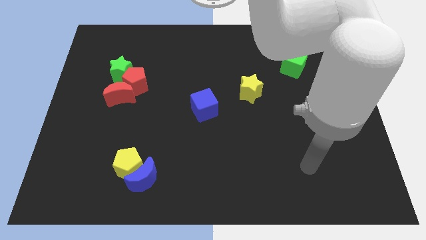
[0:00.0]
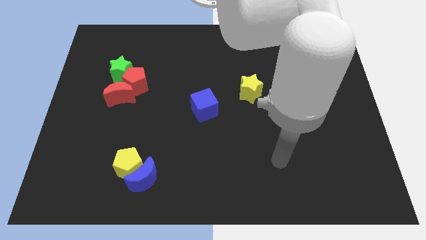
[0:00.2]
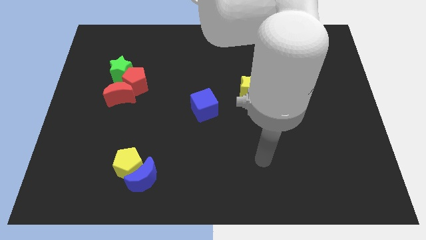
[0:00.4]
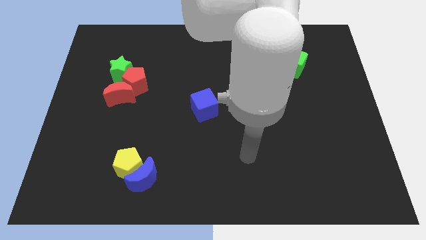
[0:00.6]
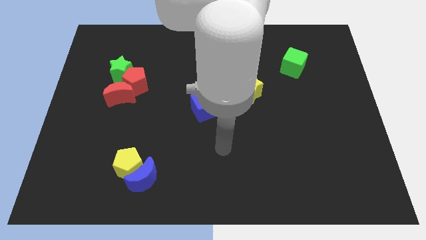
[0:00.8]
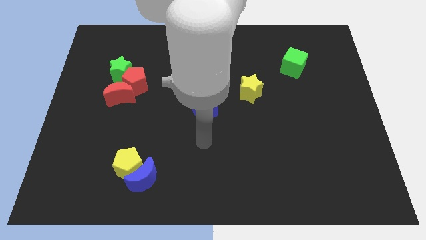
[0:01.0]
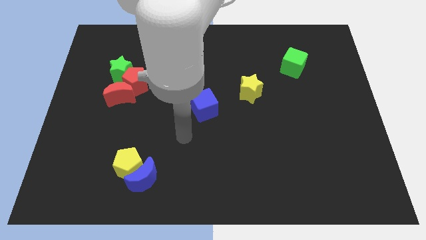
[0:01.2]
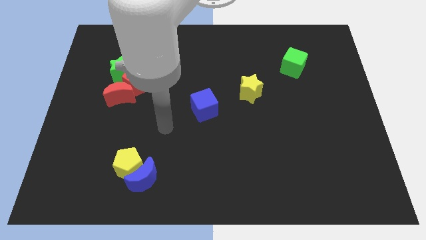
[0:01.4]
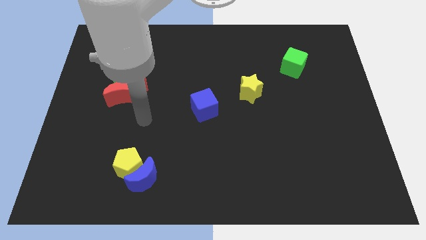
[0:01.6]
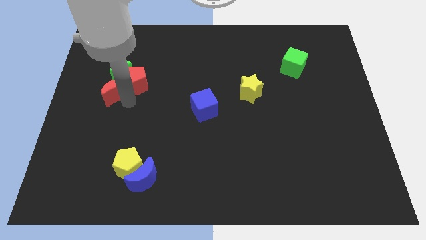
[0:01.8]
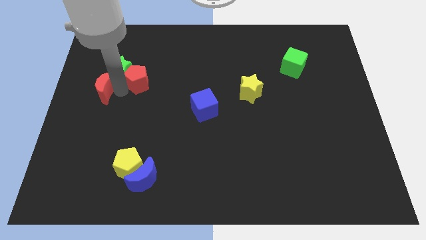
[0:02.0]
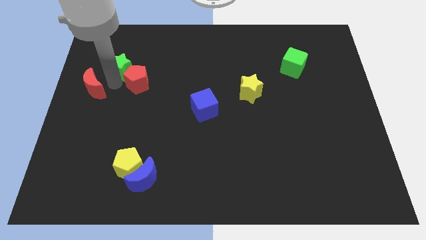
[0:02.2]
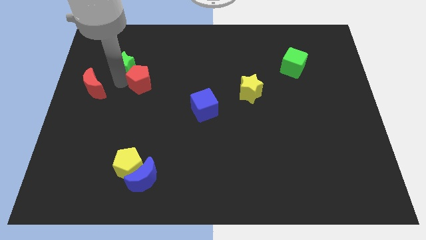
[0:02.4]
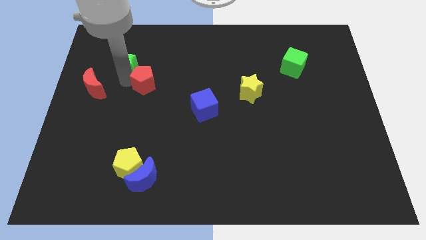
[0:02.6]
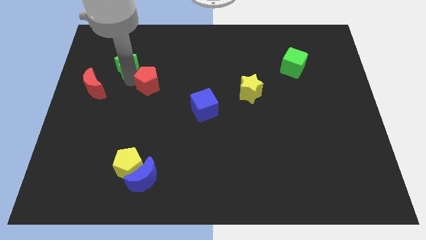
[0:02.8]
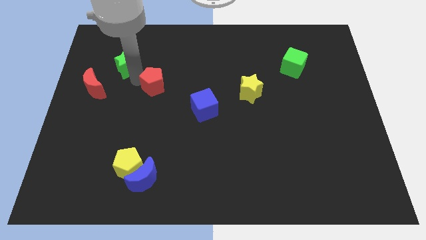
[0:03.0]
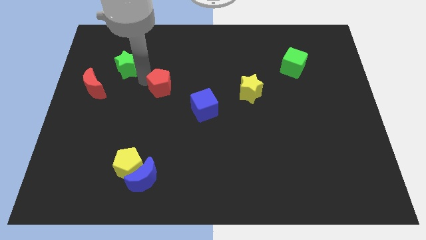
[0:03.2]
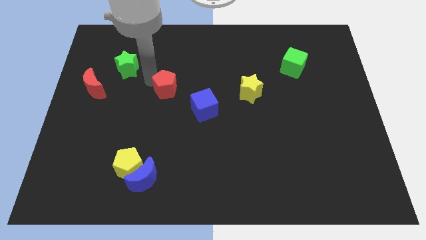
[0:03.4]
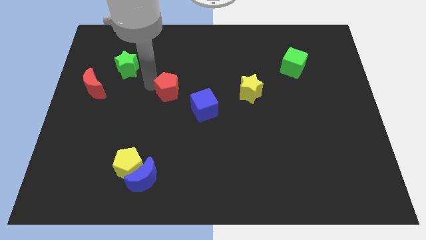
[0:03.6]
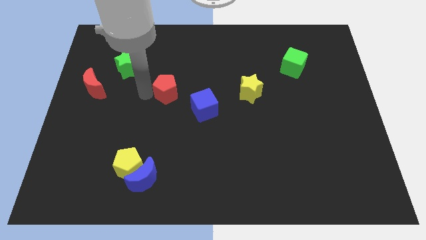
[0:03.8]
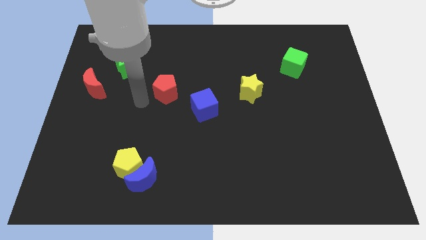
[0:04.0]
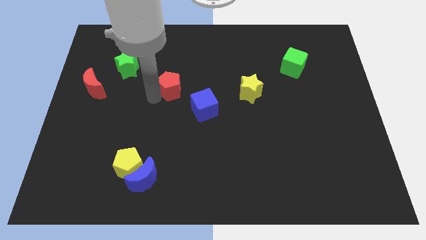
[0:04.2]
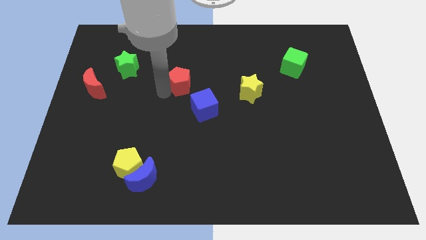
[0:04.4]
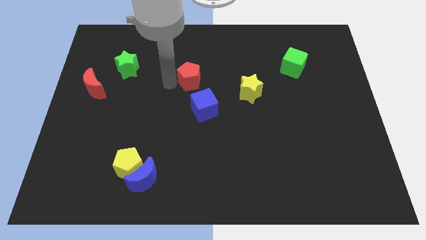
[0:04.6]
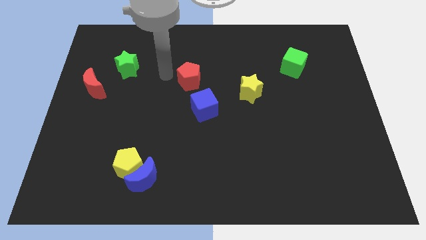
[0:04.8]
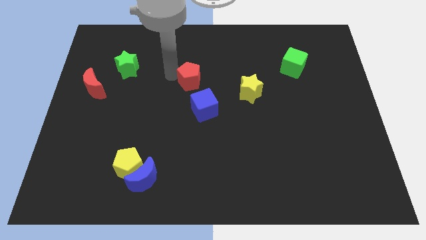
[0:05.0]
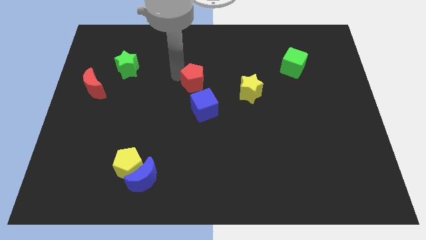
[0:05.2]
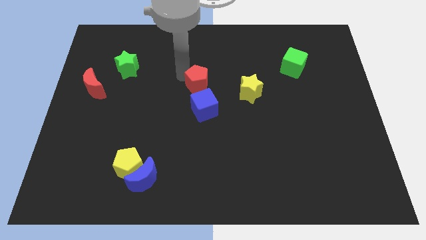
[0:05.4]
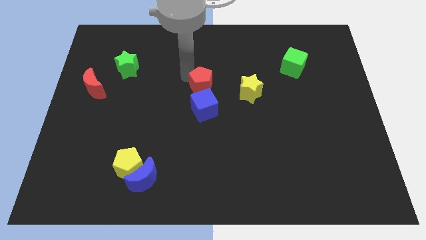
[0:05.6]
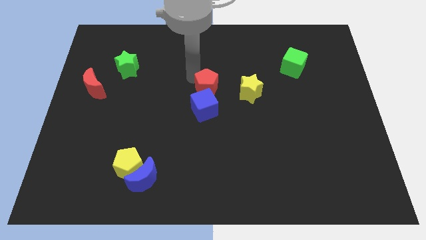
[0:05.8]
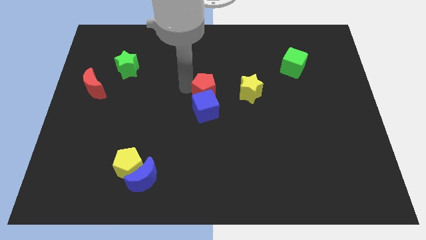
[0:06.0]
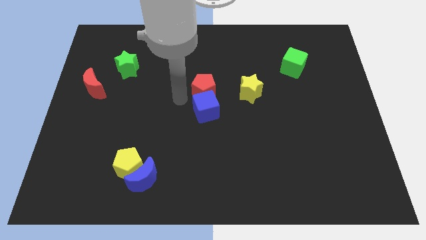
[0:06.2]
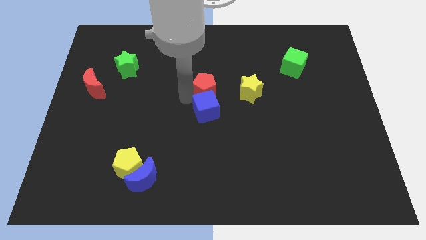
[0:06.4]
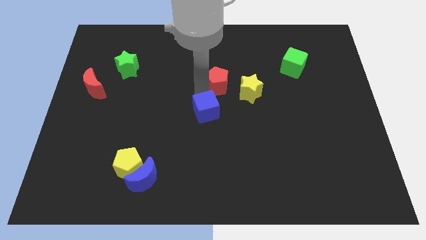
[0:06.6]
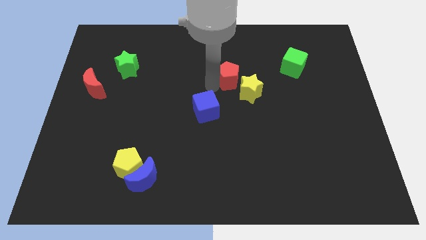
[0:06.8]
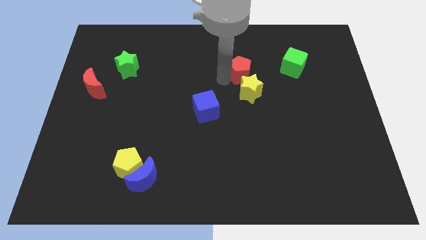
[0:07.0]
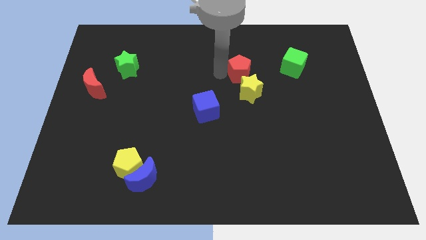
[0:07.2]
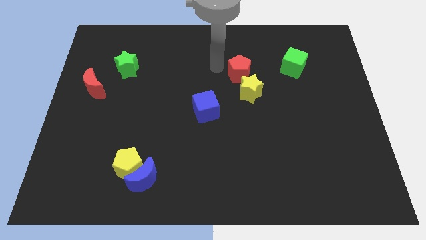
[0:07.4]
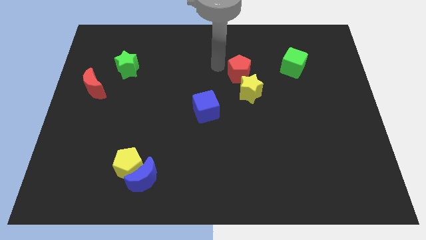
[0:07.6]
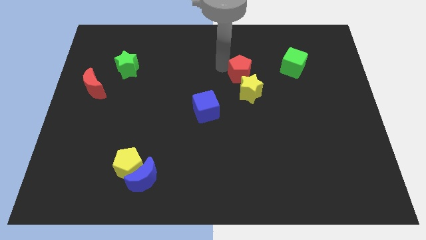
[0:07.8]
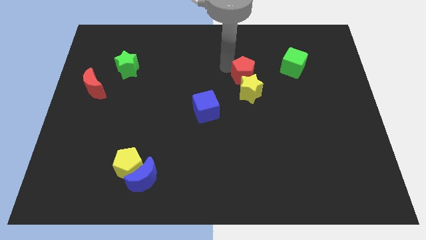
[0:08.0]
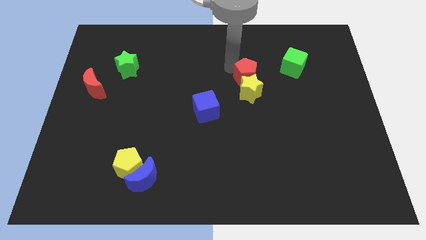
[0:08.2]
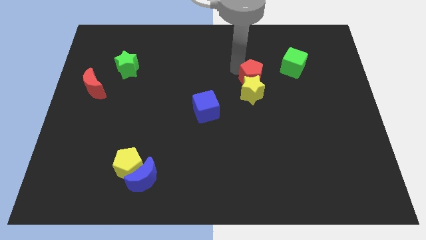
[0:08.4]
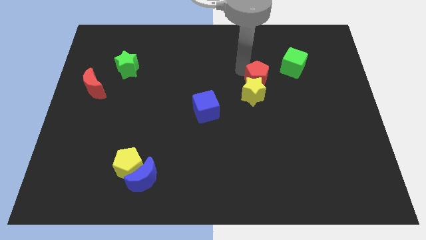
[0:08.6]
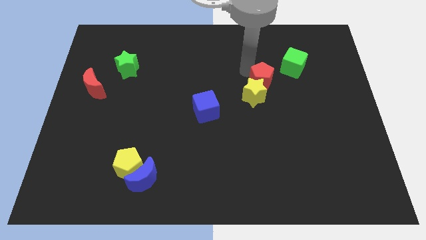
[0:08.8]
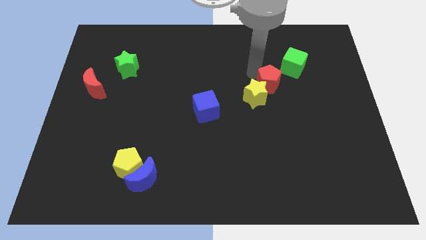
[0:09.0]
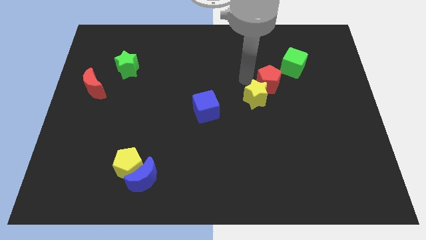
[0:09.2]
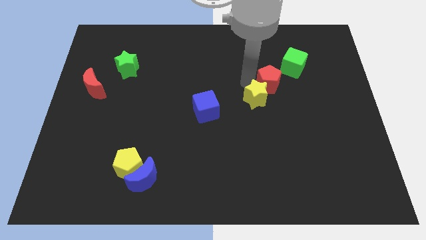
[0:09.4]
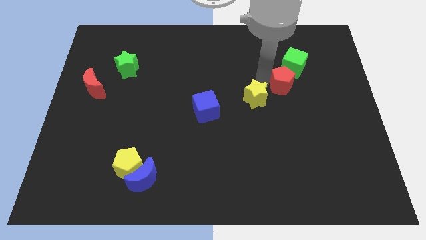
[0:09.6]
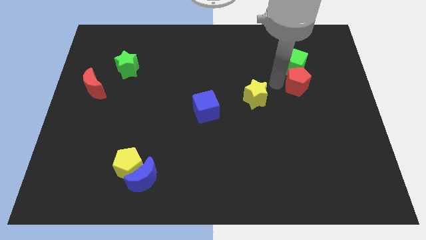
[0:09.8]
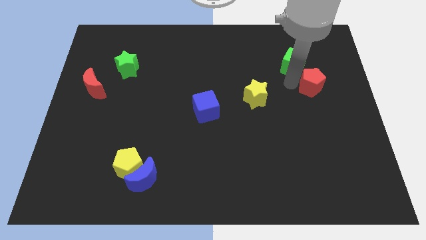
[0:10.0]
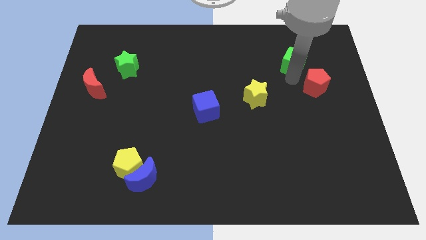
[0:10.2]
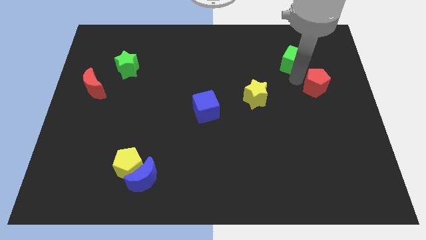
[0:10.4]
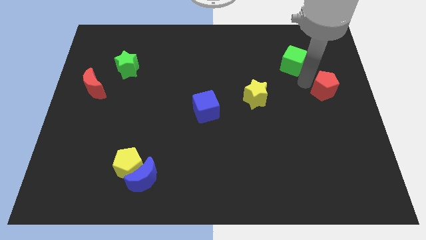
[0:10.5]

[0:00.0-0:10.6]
push the red pentagon to the center right
